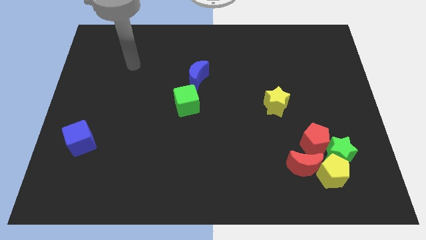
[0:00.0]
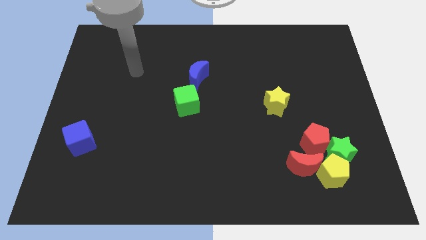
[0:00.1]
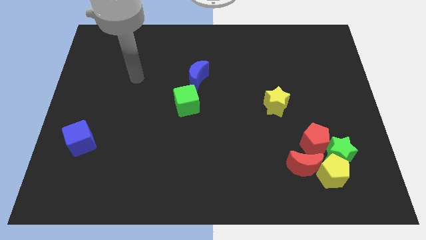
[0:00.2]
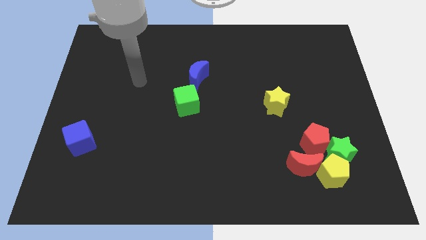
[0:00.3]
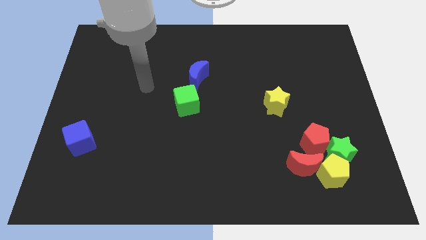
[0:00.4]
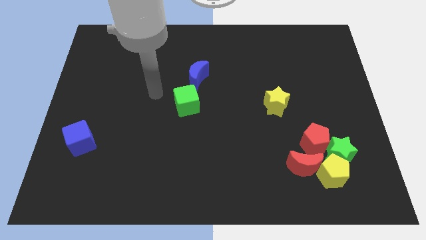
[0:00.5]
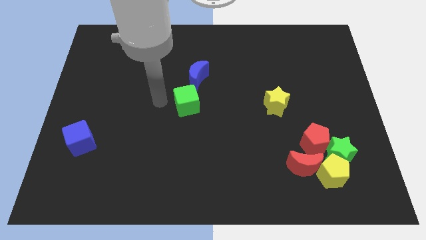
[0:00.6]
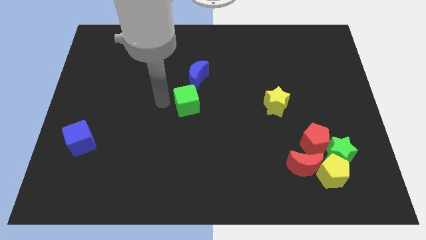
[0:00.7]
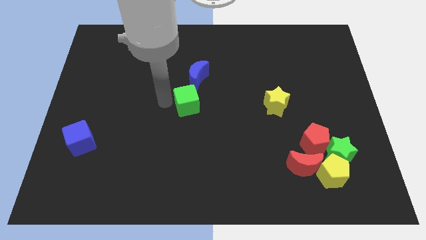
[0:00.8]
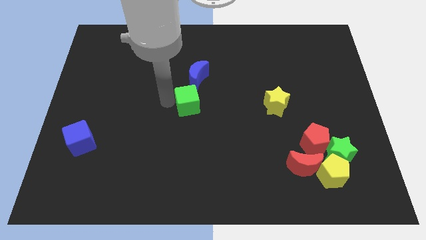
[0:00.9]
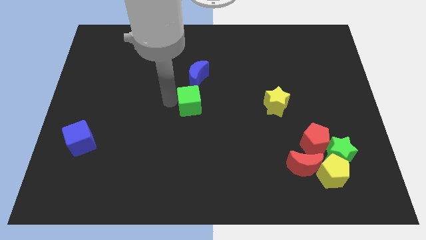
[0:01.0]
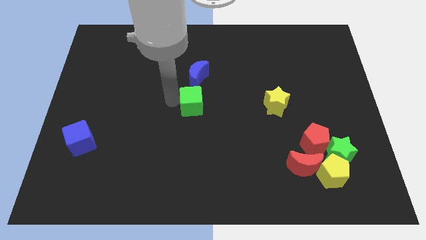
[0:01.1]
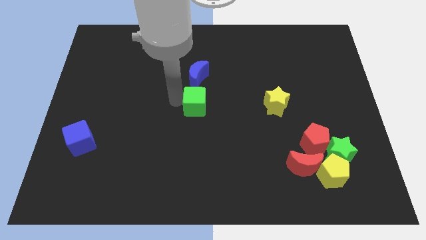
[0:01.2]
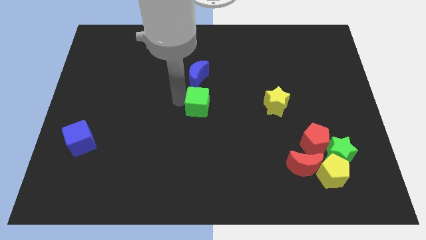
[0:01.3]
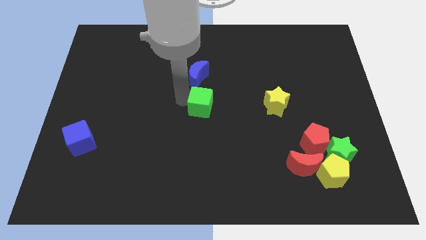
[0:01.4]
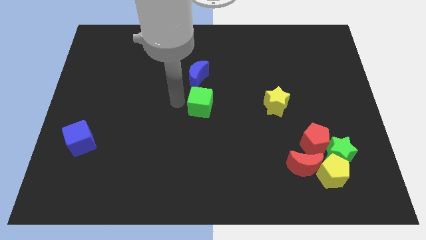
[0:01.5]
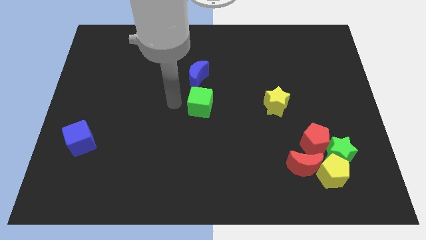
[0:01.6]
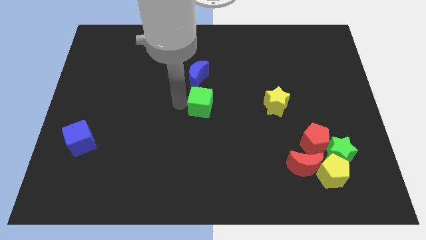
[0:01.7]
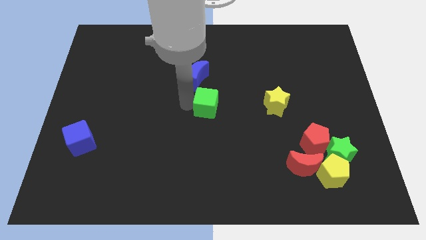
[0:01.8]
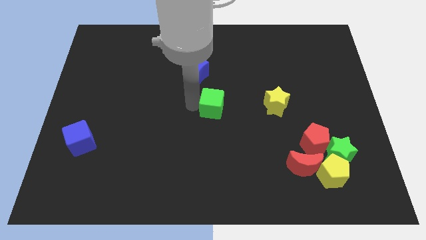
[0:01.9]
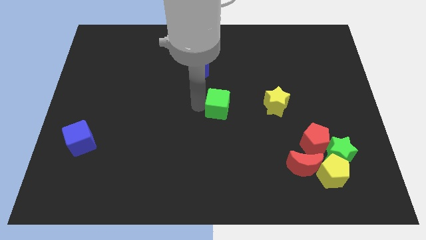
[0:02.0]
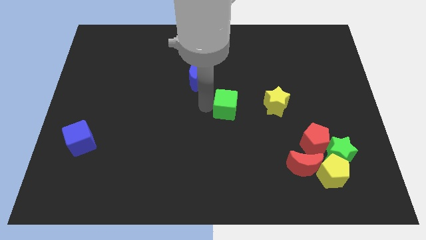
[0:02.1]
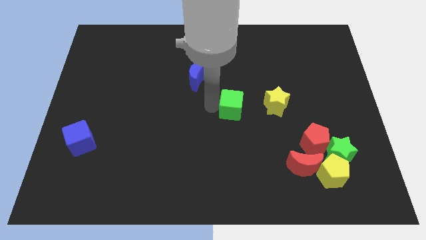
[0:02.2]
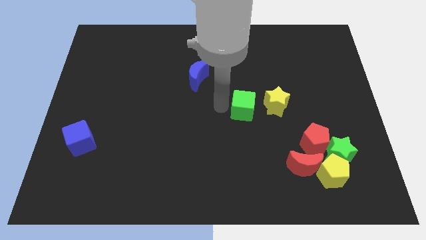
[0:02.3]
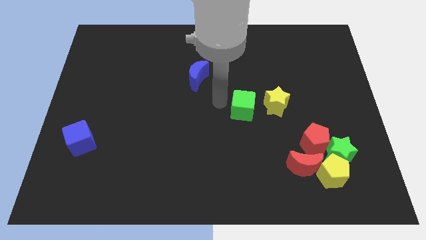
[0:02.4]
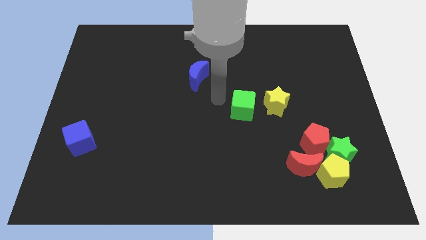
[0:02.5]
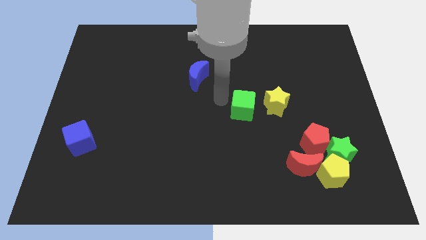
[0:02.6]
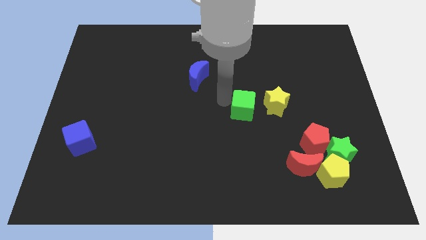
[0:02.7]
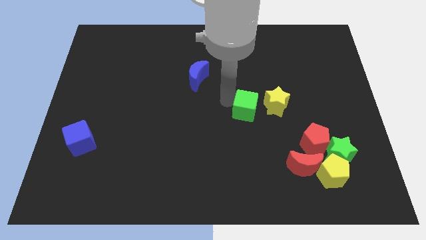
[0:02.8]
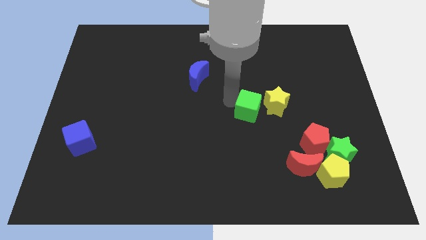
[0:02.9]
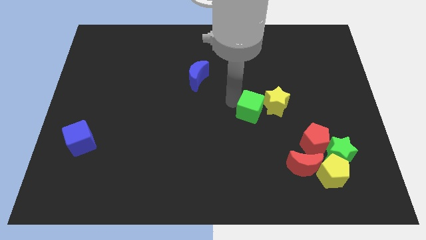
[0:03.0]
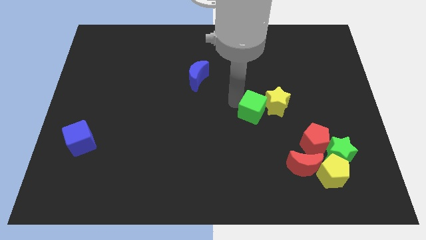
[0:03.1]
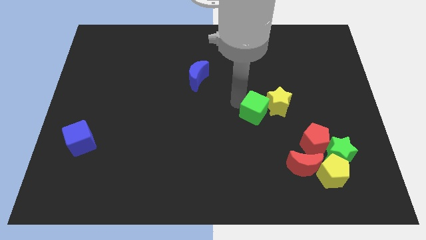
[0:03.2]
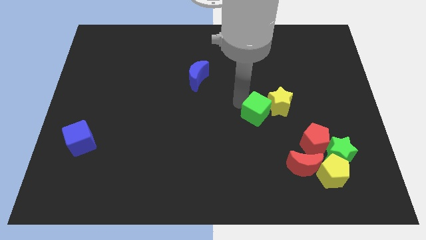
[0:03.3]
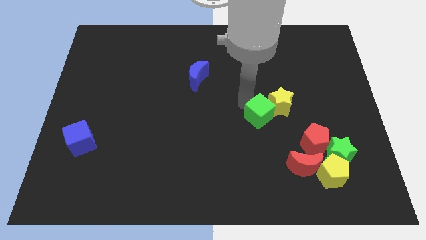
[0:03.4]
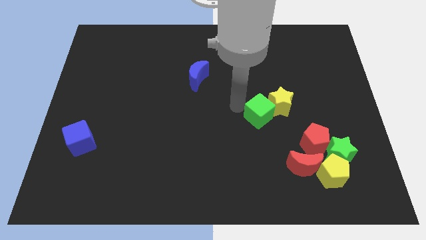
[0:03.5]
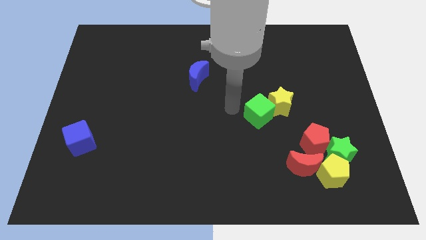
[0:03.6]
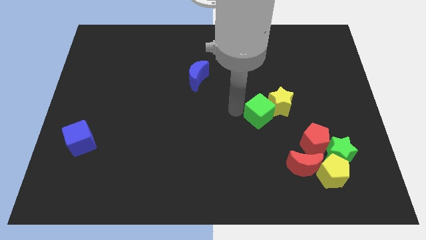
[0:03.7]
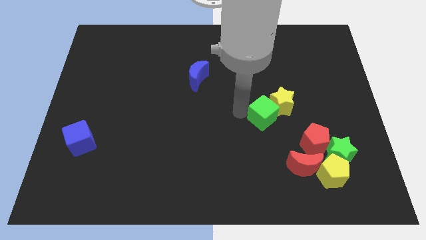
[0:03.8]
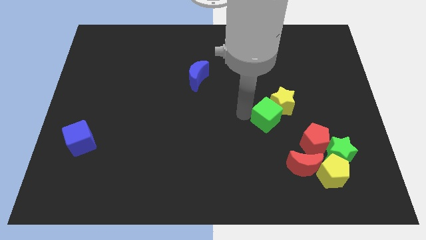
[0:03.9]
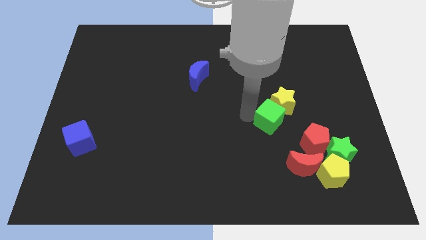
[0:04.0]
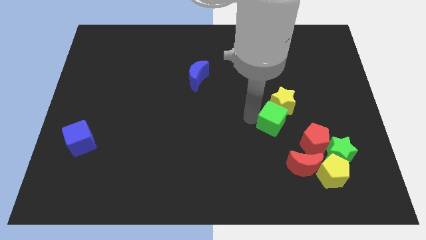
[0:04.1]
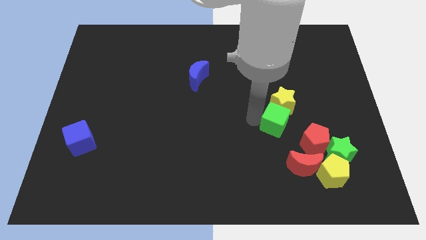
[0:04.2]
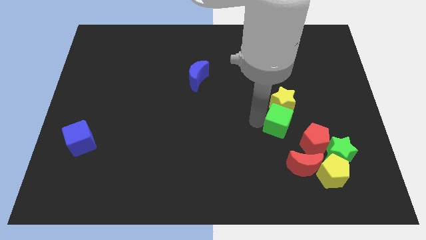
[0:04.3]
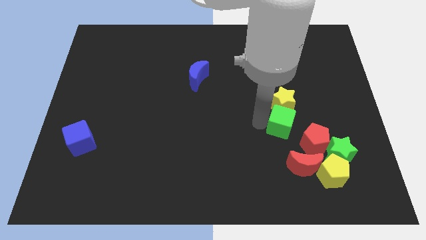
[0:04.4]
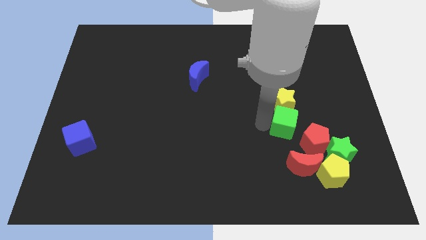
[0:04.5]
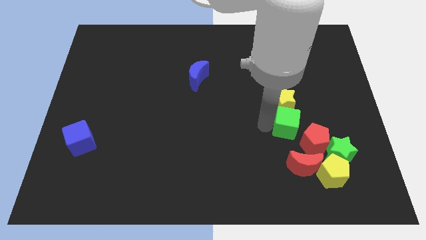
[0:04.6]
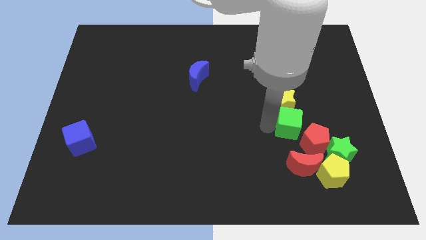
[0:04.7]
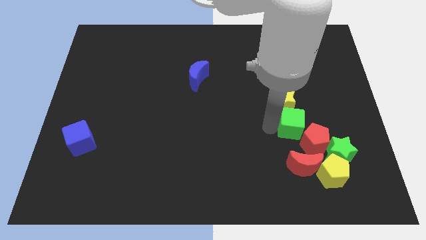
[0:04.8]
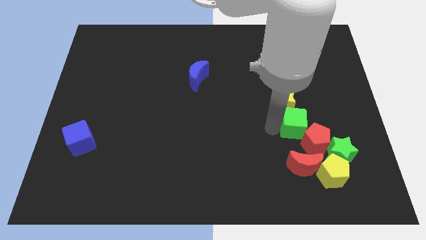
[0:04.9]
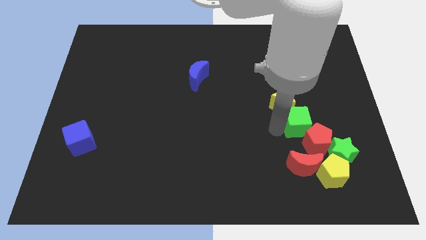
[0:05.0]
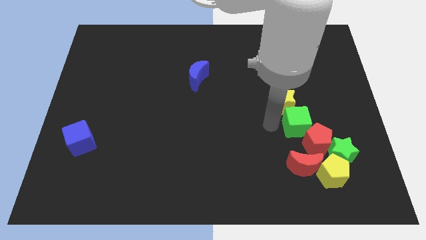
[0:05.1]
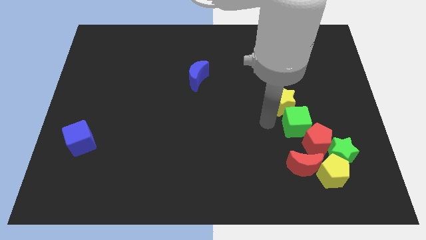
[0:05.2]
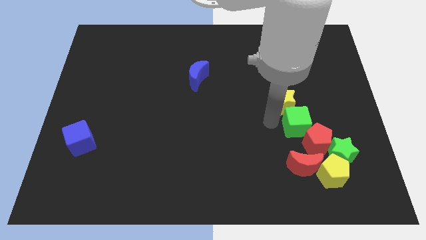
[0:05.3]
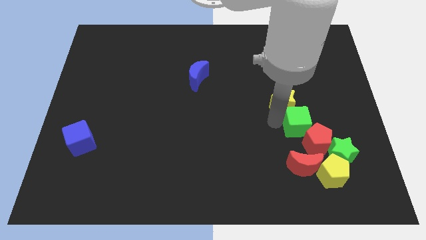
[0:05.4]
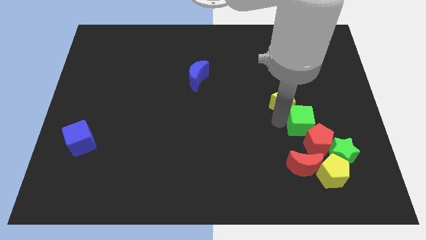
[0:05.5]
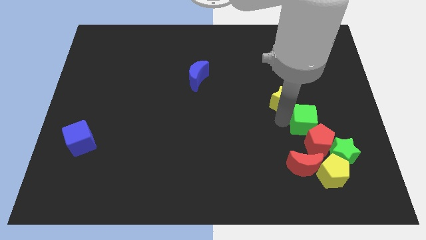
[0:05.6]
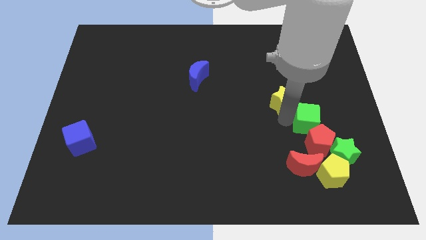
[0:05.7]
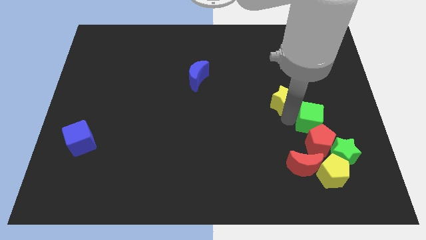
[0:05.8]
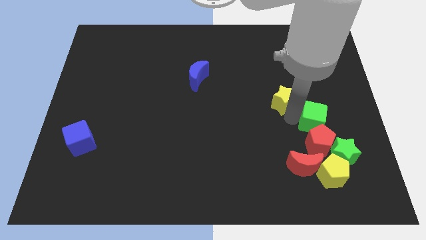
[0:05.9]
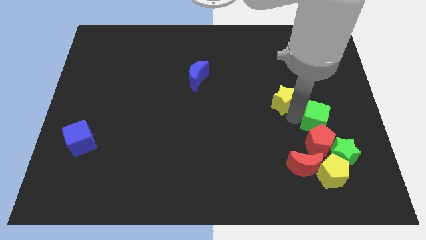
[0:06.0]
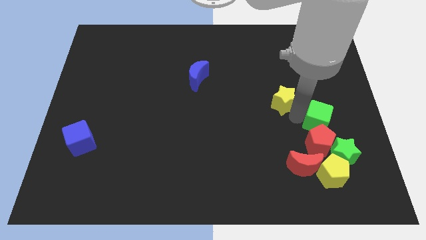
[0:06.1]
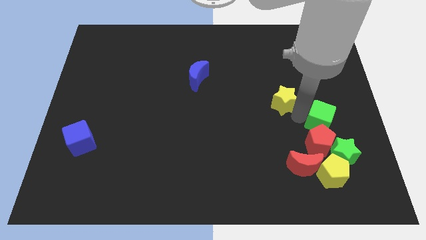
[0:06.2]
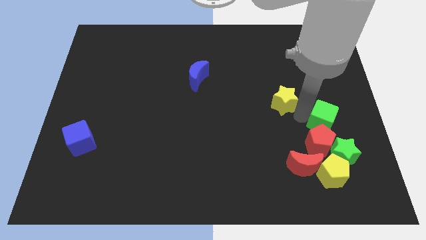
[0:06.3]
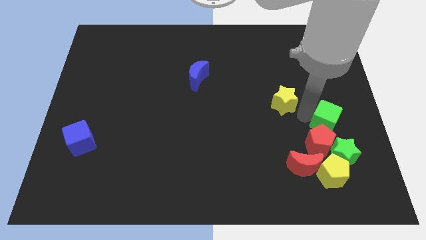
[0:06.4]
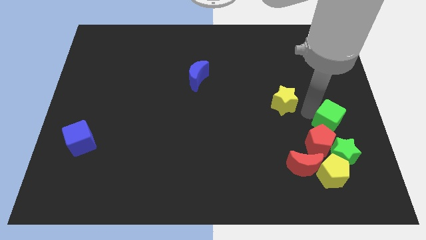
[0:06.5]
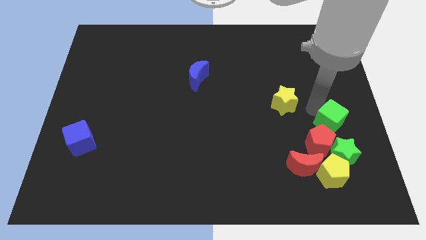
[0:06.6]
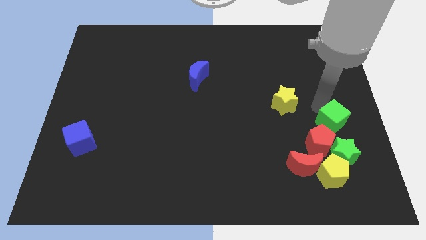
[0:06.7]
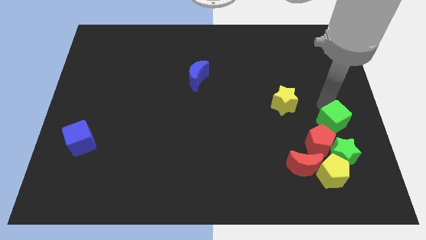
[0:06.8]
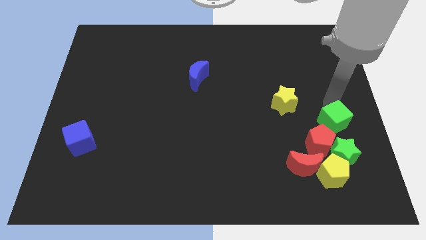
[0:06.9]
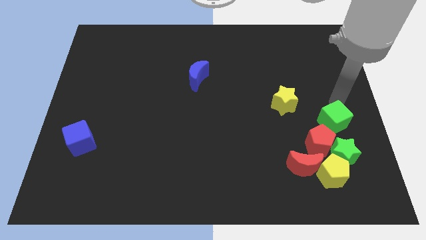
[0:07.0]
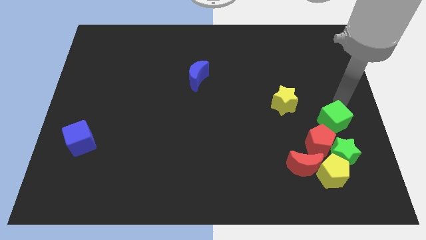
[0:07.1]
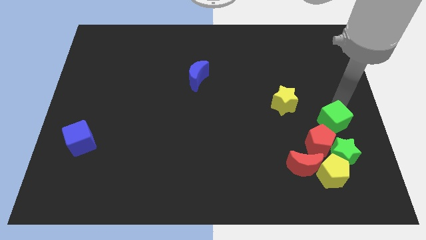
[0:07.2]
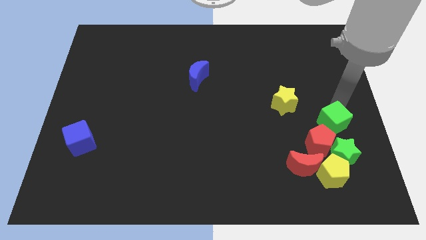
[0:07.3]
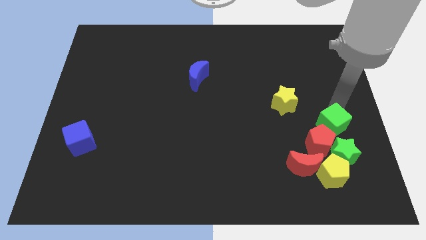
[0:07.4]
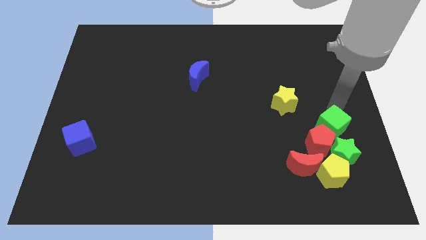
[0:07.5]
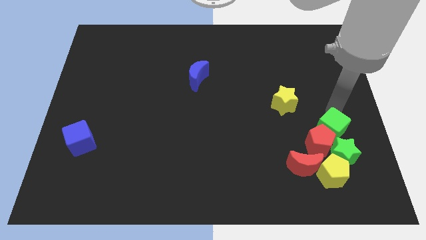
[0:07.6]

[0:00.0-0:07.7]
move the green cube diagonally up and to the right of the red moon

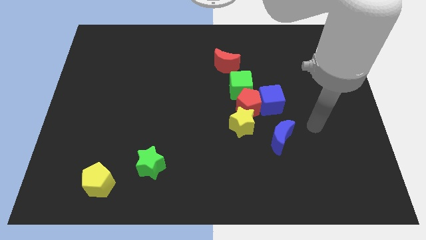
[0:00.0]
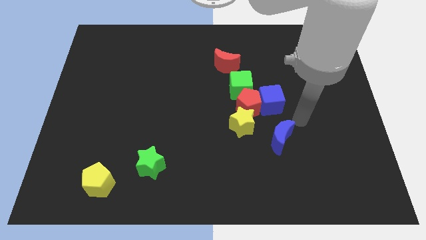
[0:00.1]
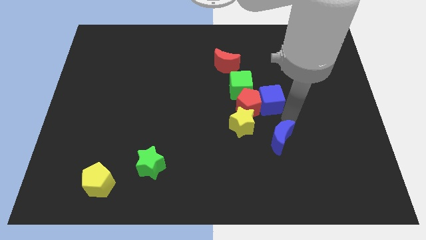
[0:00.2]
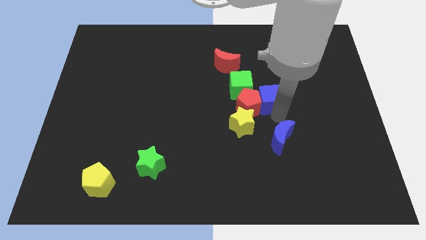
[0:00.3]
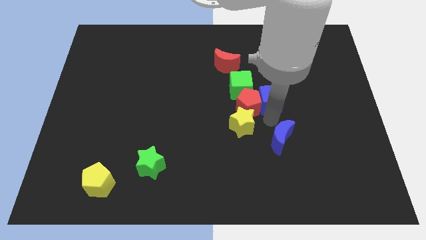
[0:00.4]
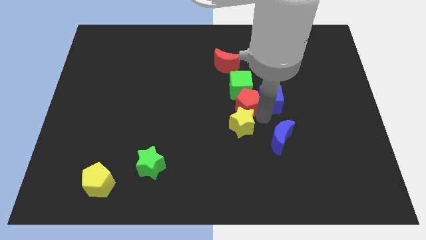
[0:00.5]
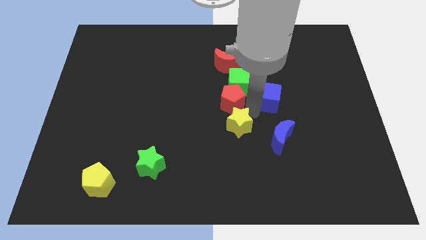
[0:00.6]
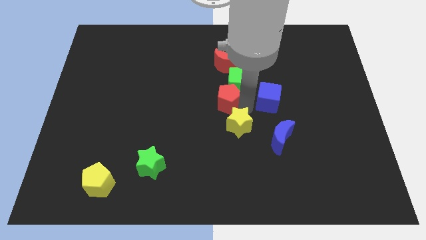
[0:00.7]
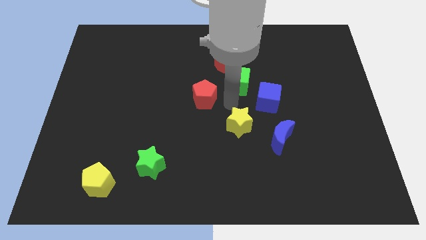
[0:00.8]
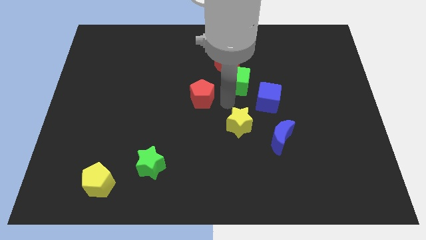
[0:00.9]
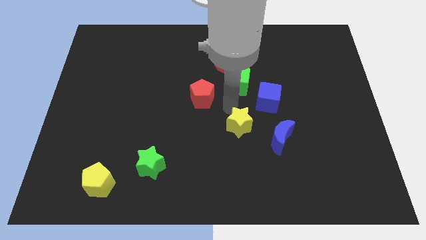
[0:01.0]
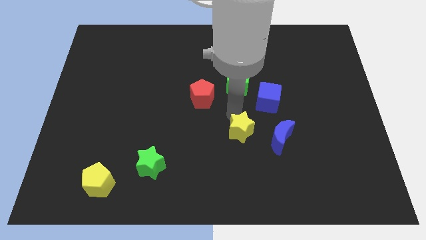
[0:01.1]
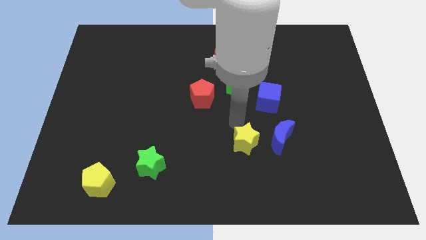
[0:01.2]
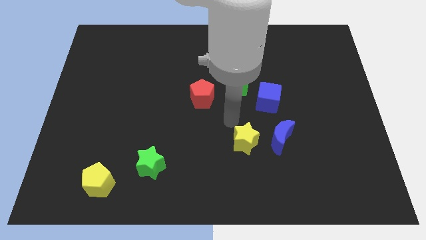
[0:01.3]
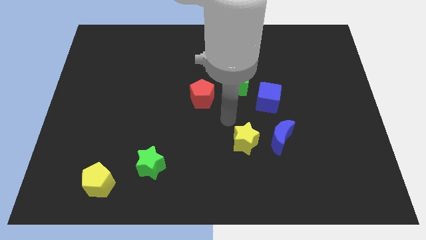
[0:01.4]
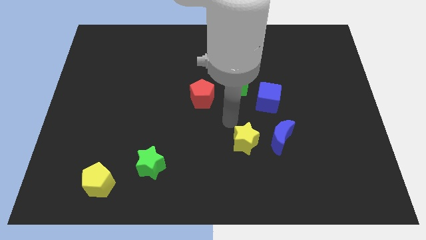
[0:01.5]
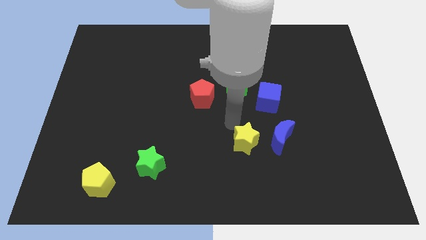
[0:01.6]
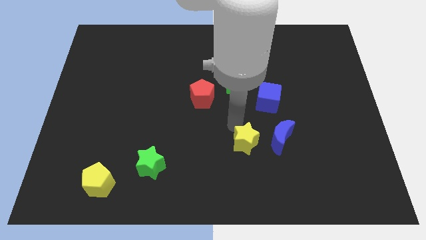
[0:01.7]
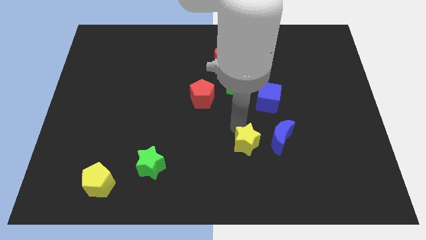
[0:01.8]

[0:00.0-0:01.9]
slide the yellow star to the bottom left side of the blue moon
